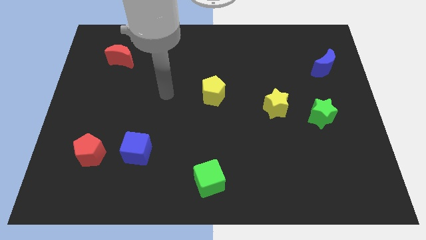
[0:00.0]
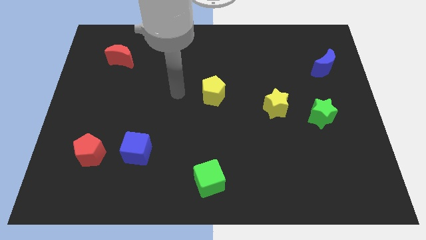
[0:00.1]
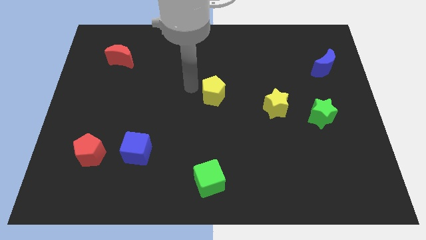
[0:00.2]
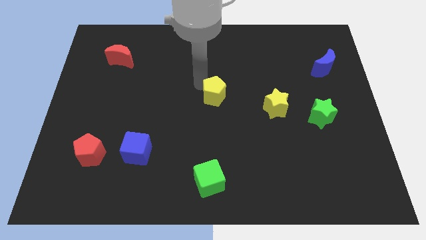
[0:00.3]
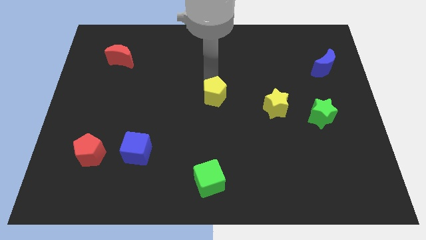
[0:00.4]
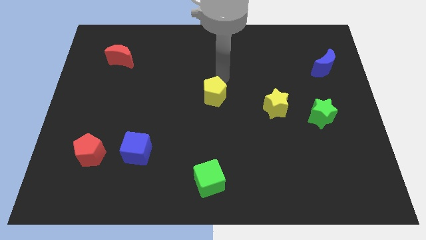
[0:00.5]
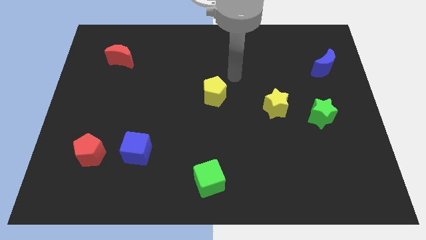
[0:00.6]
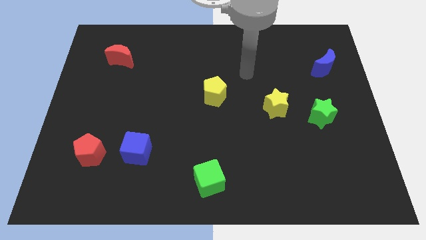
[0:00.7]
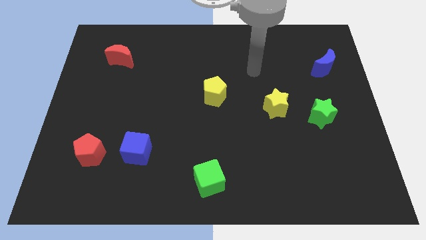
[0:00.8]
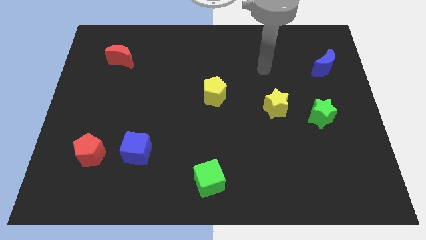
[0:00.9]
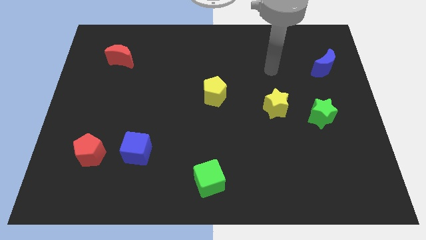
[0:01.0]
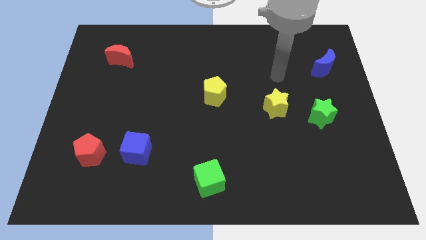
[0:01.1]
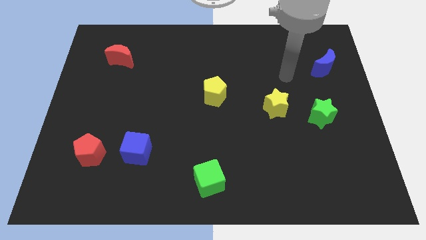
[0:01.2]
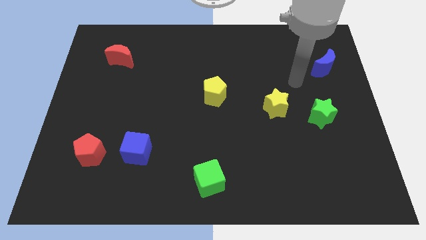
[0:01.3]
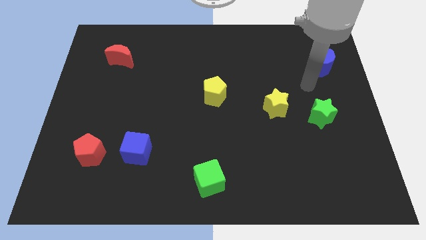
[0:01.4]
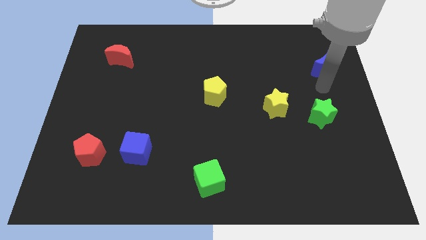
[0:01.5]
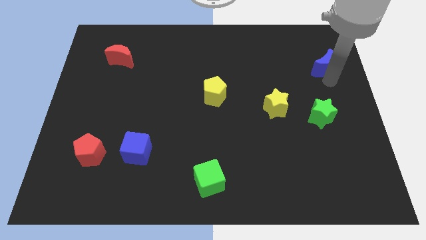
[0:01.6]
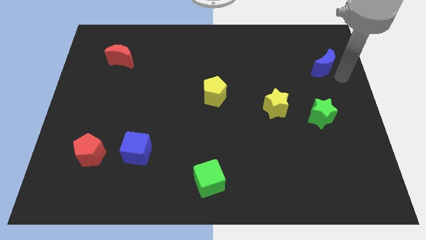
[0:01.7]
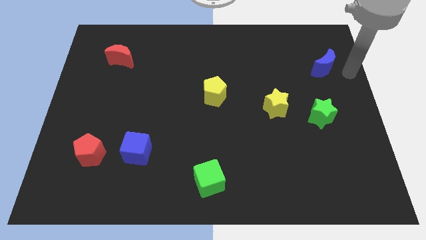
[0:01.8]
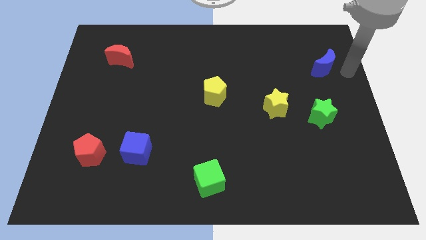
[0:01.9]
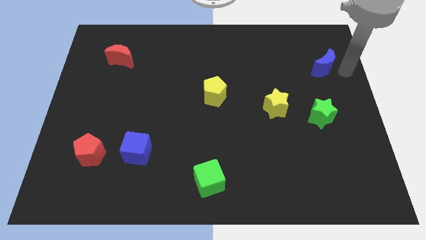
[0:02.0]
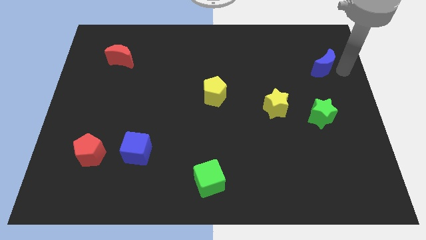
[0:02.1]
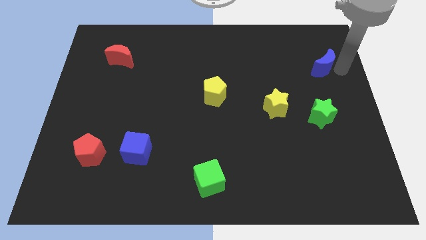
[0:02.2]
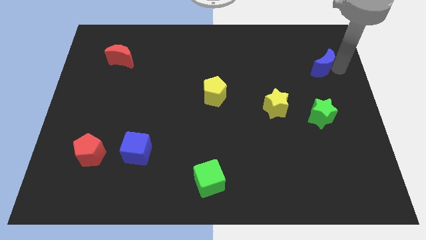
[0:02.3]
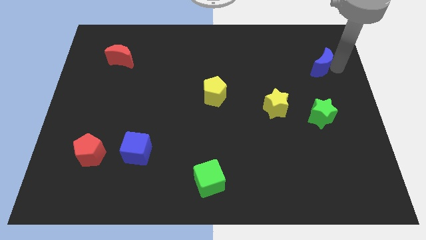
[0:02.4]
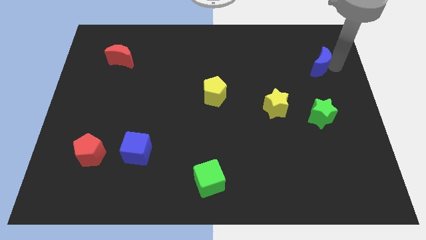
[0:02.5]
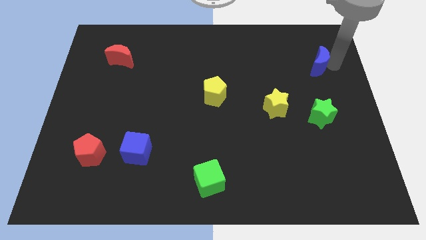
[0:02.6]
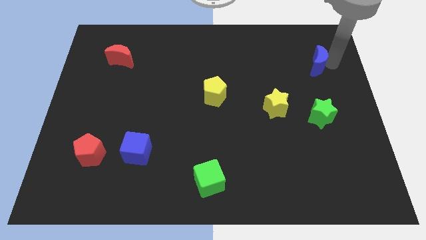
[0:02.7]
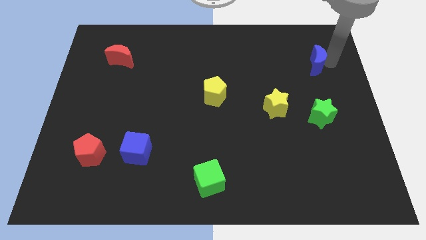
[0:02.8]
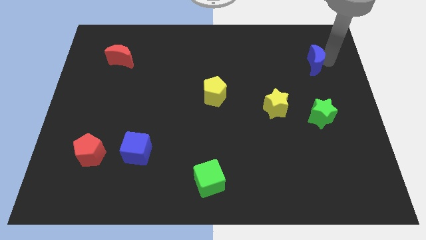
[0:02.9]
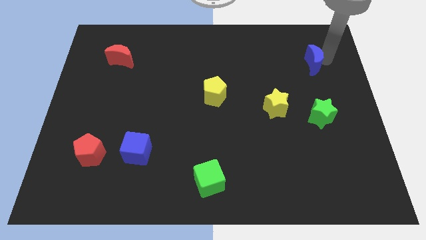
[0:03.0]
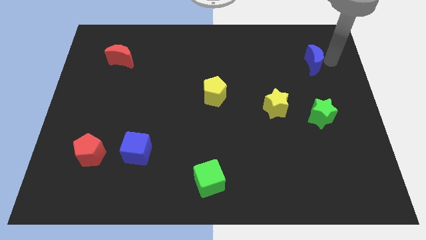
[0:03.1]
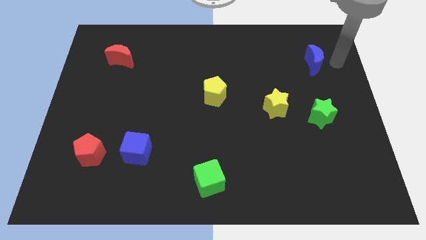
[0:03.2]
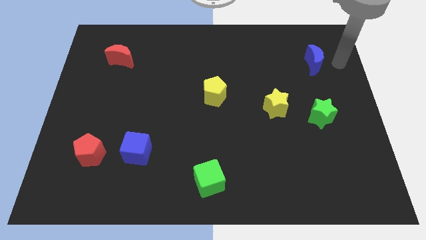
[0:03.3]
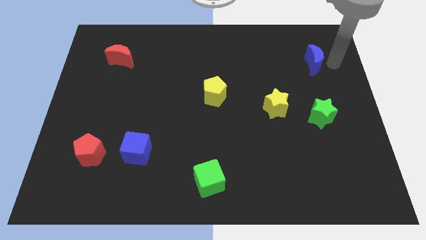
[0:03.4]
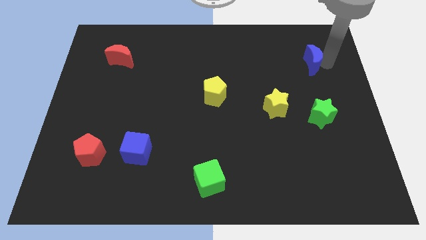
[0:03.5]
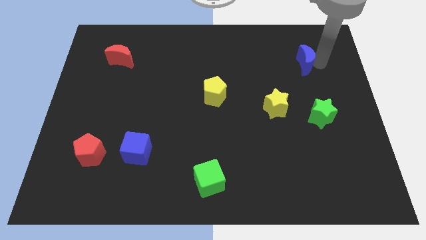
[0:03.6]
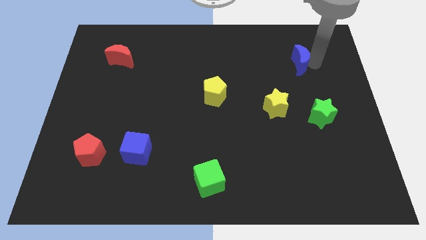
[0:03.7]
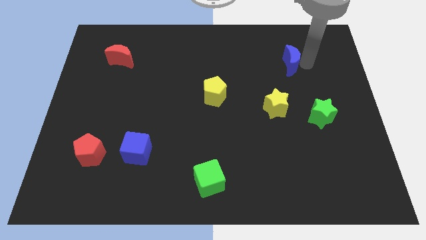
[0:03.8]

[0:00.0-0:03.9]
slightly push the blue moon left

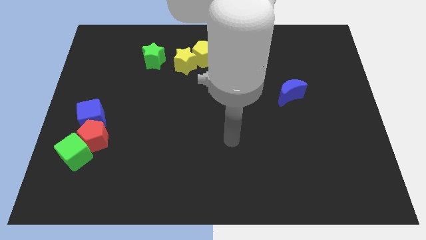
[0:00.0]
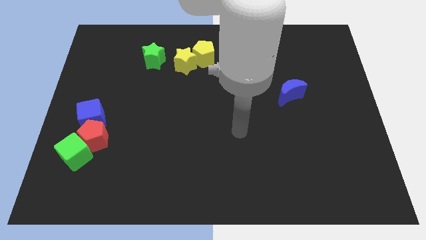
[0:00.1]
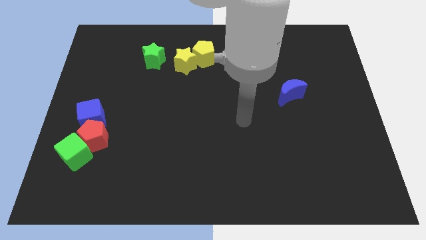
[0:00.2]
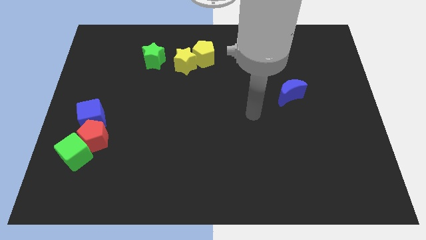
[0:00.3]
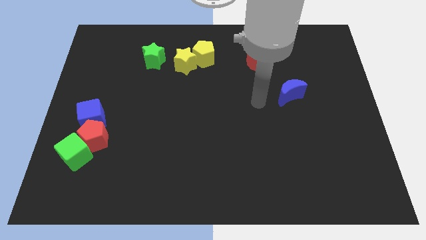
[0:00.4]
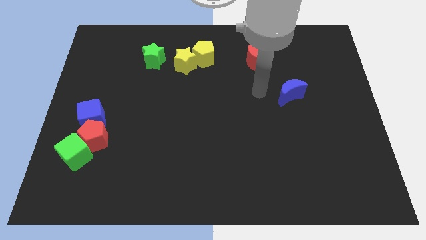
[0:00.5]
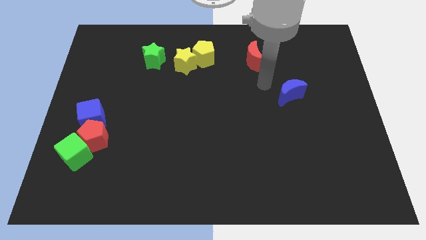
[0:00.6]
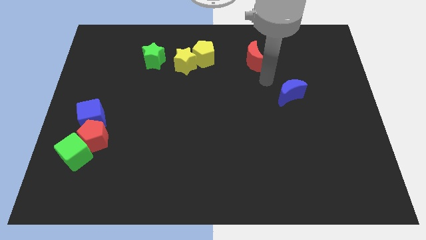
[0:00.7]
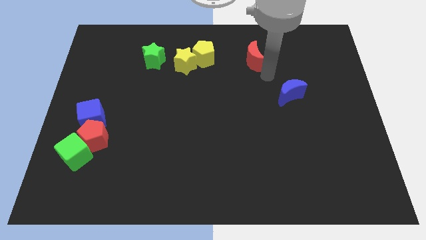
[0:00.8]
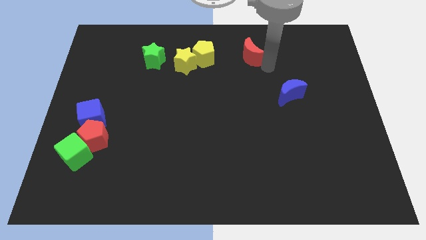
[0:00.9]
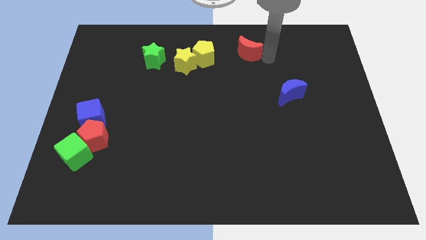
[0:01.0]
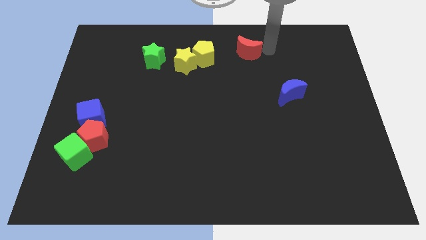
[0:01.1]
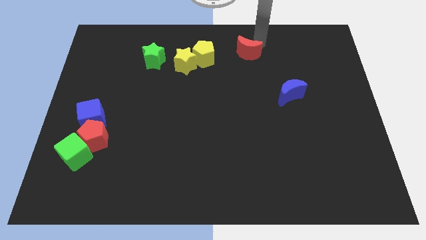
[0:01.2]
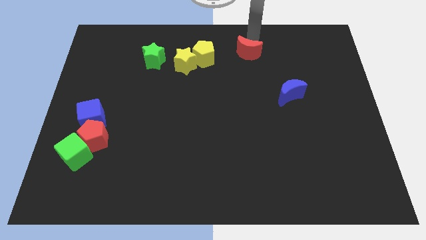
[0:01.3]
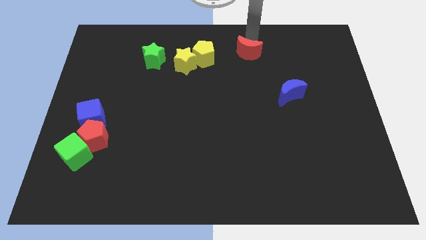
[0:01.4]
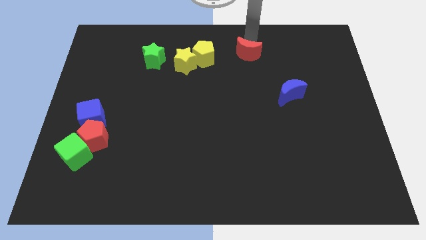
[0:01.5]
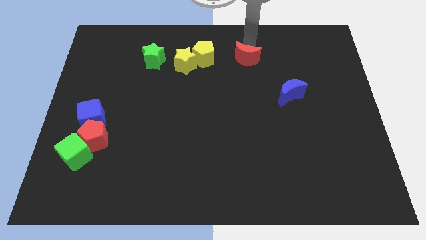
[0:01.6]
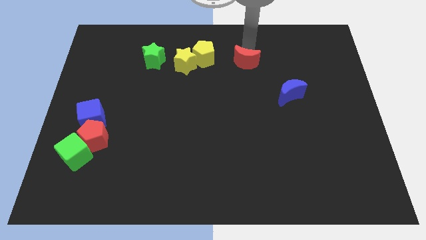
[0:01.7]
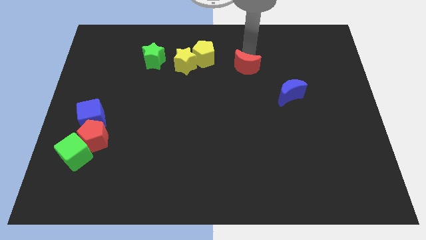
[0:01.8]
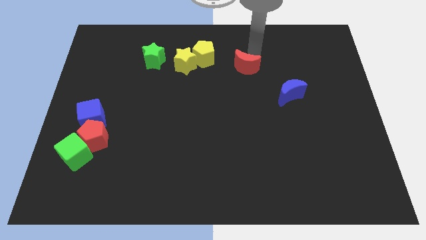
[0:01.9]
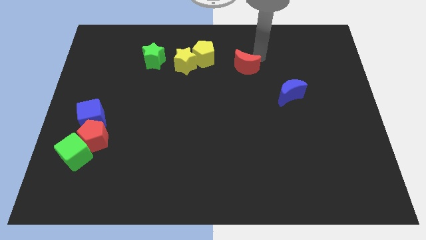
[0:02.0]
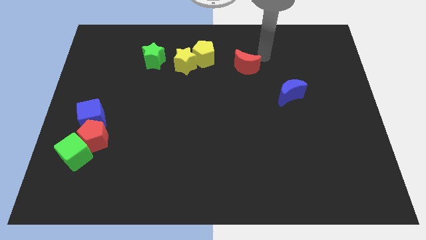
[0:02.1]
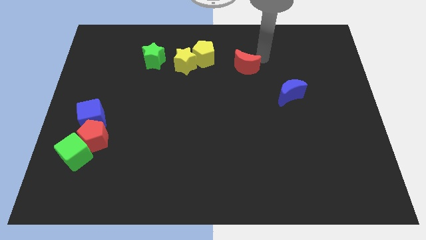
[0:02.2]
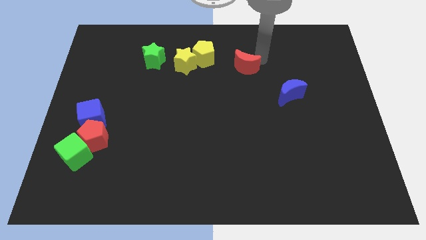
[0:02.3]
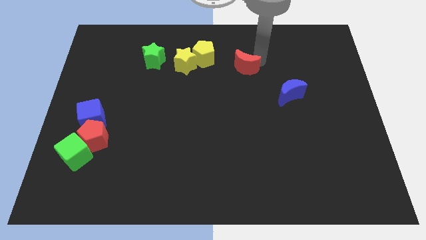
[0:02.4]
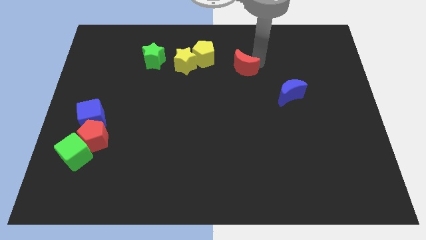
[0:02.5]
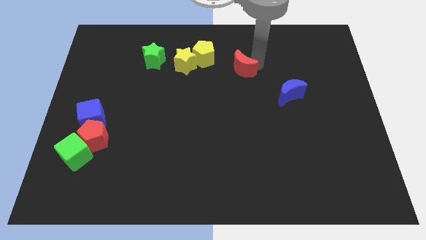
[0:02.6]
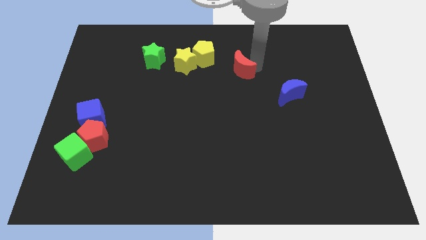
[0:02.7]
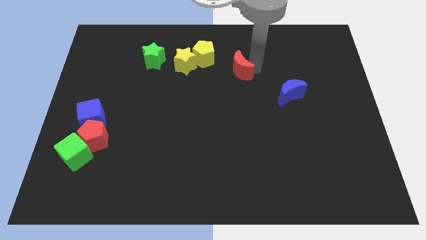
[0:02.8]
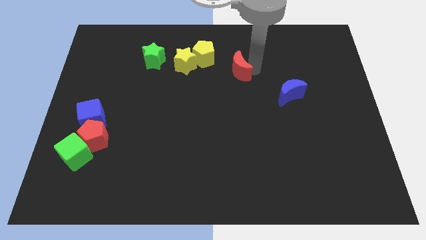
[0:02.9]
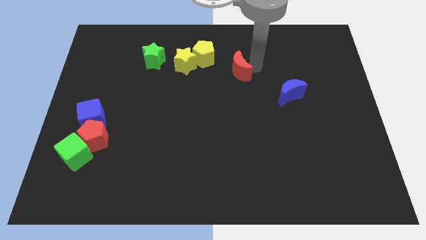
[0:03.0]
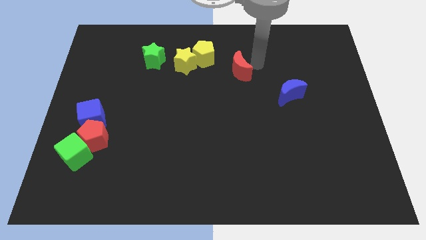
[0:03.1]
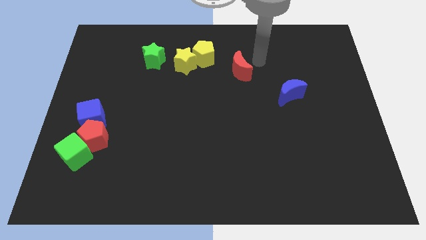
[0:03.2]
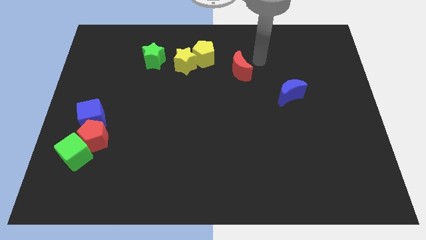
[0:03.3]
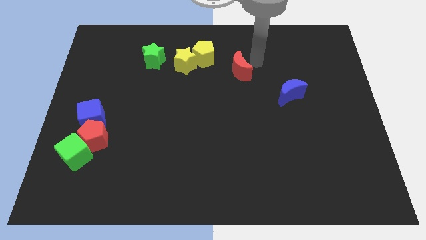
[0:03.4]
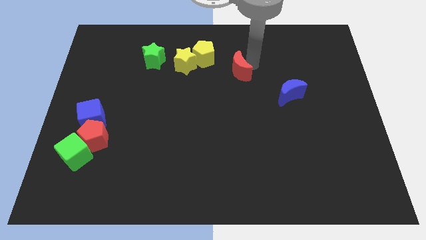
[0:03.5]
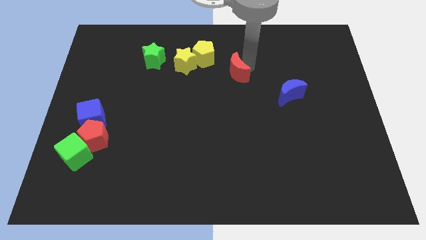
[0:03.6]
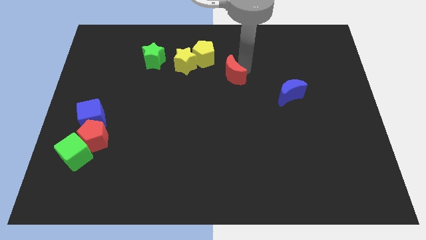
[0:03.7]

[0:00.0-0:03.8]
slide the red moon a bit downwards and left diagonally

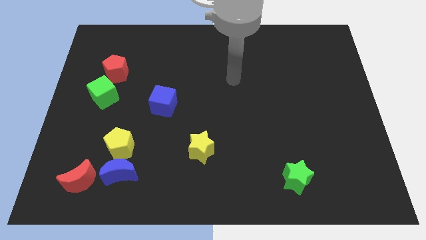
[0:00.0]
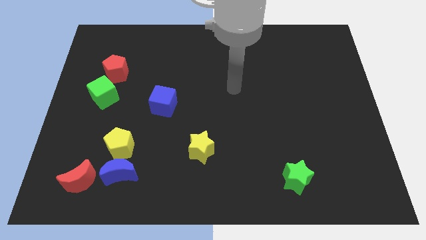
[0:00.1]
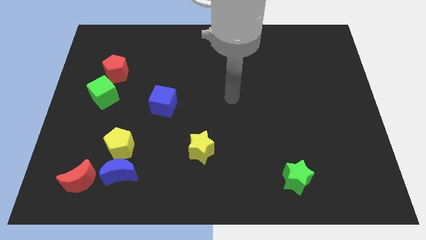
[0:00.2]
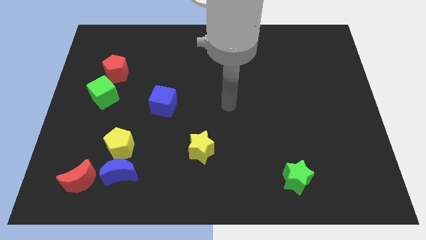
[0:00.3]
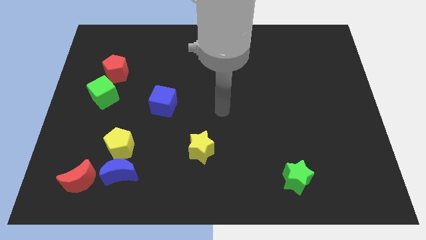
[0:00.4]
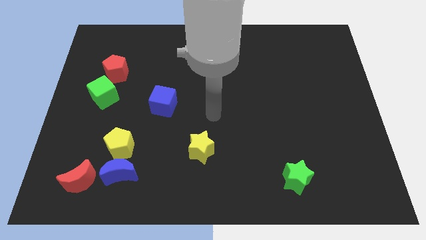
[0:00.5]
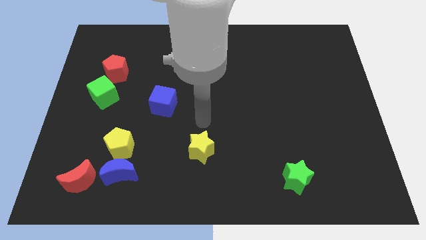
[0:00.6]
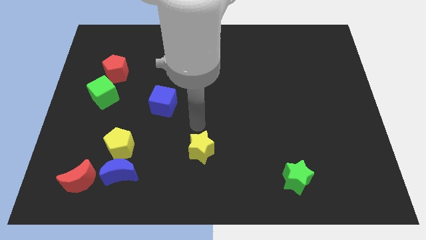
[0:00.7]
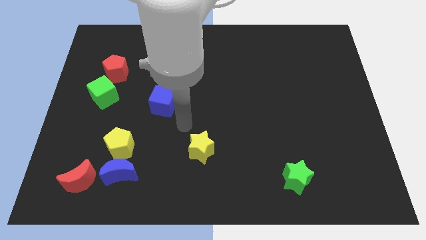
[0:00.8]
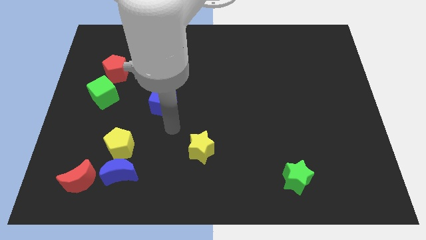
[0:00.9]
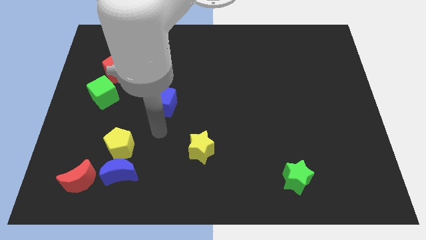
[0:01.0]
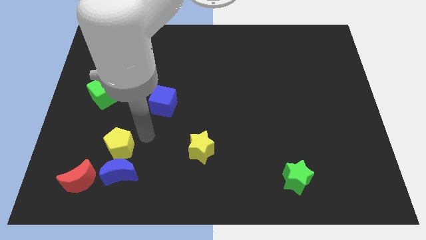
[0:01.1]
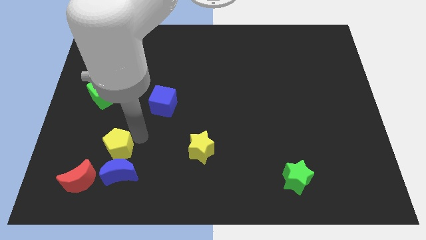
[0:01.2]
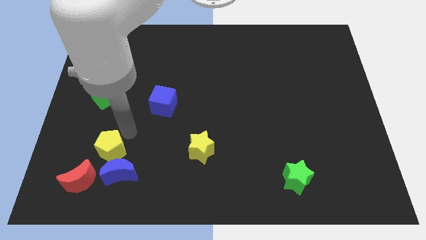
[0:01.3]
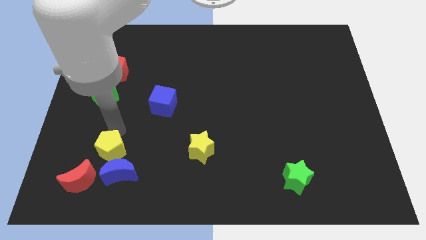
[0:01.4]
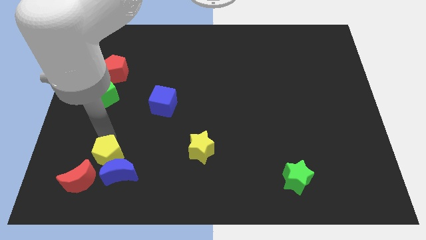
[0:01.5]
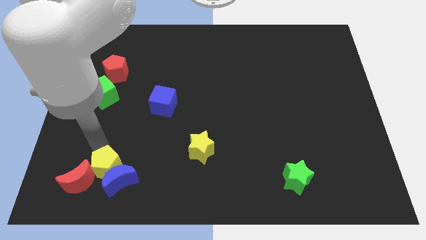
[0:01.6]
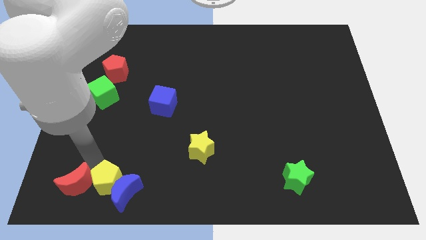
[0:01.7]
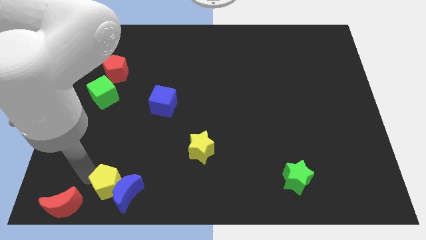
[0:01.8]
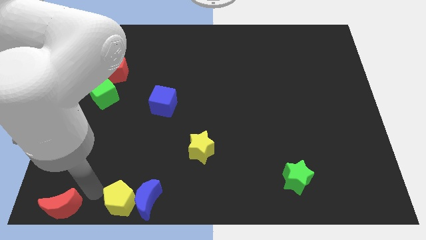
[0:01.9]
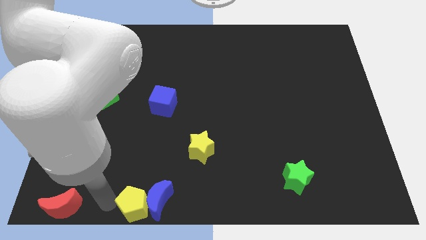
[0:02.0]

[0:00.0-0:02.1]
move the blue moon right slightly
